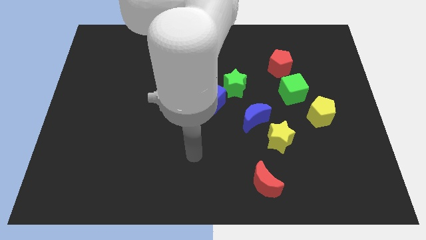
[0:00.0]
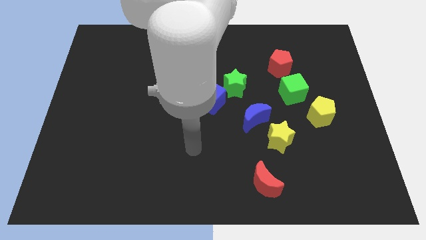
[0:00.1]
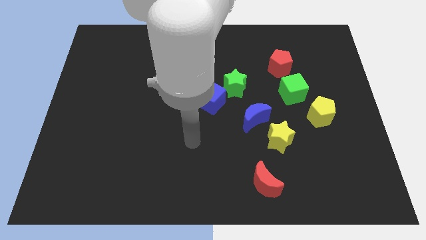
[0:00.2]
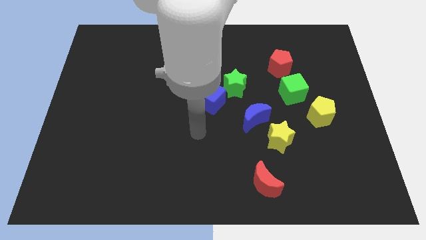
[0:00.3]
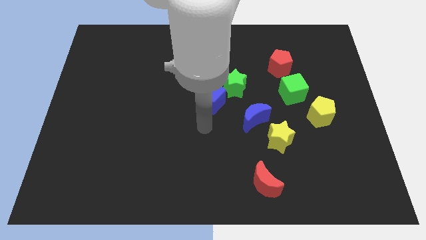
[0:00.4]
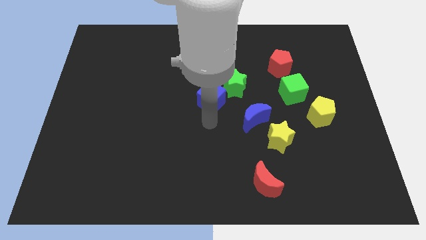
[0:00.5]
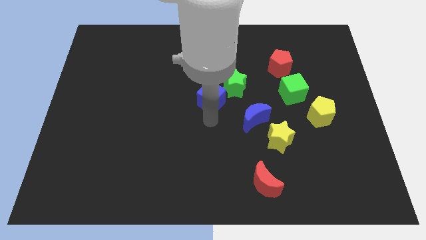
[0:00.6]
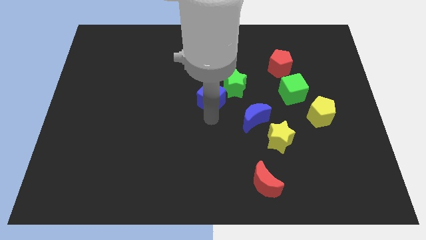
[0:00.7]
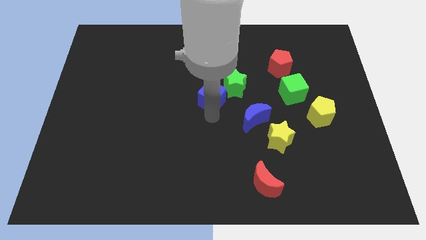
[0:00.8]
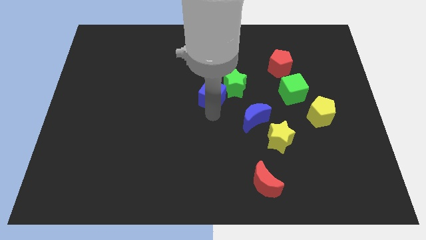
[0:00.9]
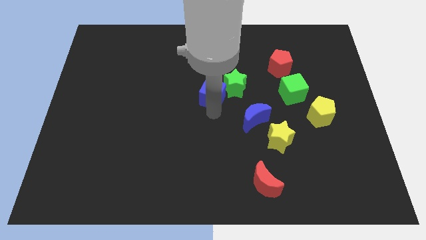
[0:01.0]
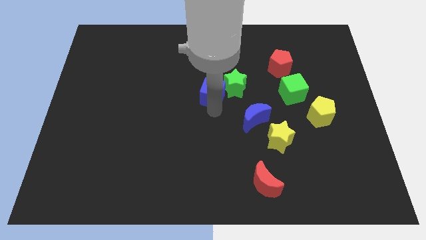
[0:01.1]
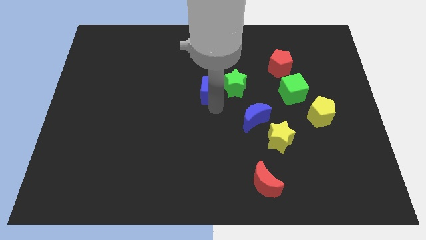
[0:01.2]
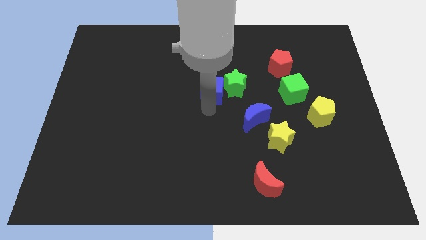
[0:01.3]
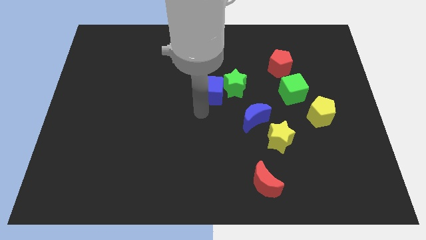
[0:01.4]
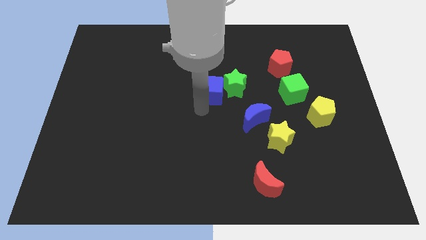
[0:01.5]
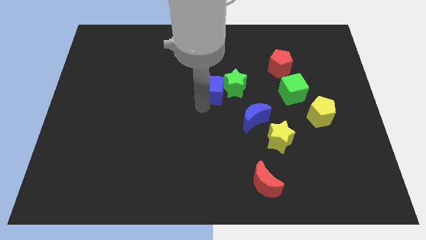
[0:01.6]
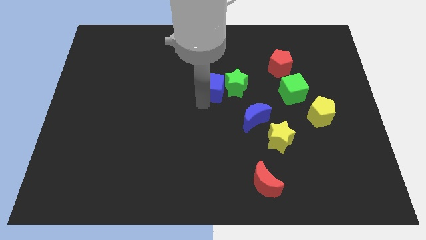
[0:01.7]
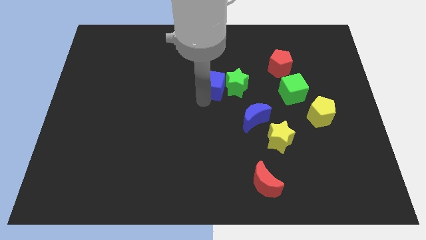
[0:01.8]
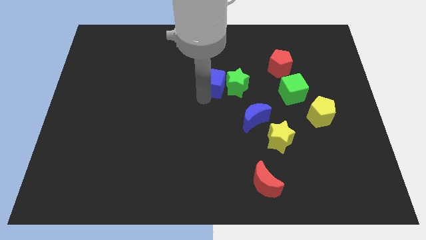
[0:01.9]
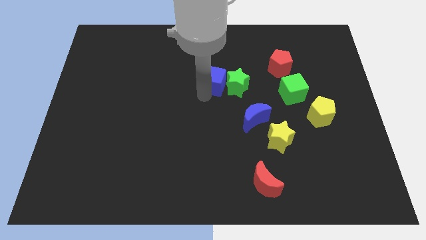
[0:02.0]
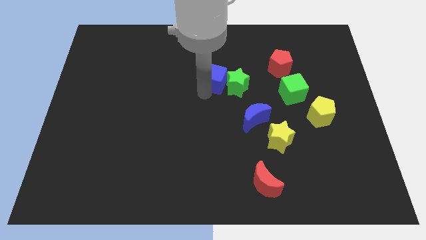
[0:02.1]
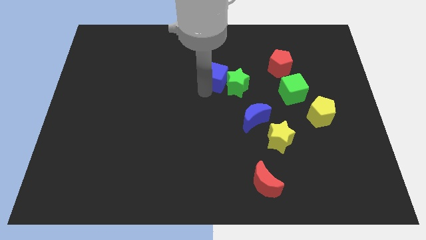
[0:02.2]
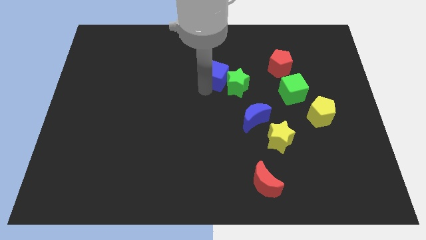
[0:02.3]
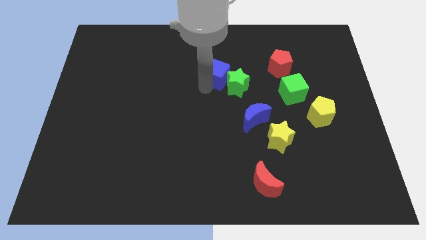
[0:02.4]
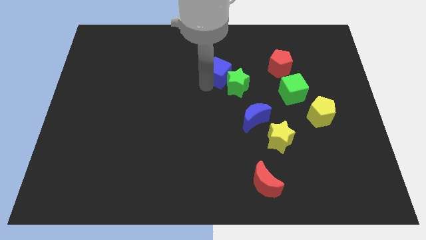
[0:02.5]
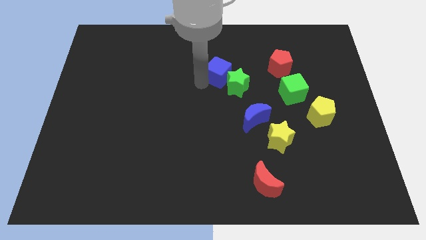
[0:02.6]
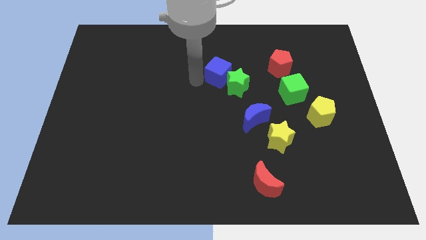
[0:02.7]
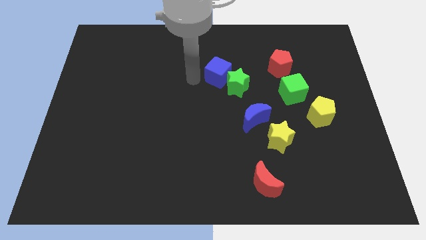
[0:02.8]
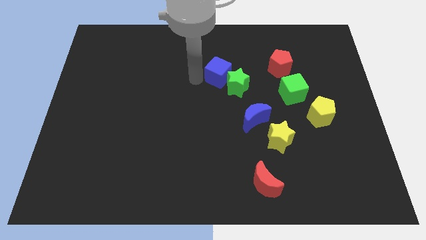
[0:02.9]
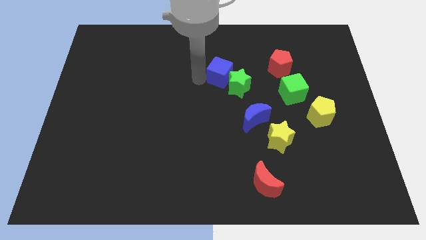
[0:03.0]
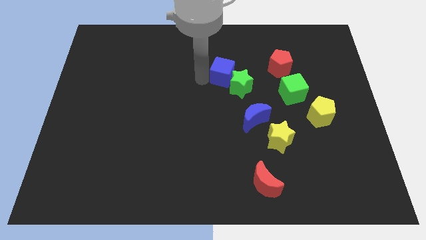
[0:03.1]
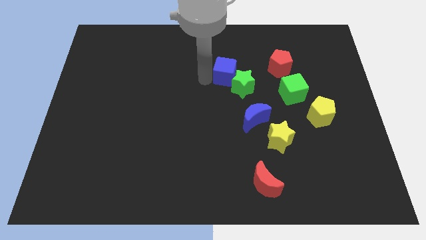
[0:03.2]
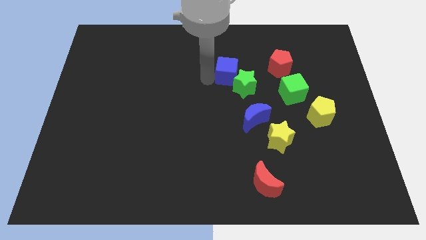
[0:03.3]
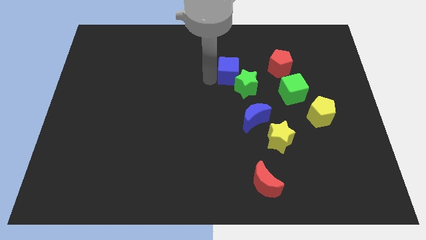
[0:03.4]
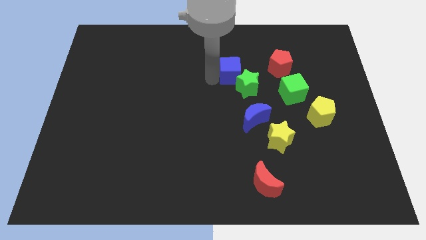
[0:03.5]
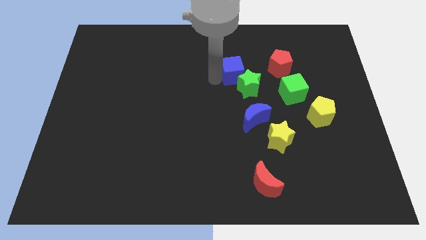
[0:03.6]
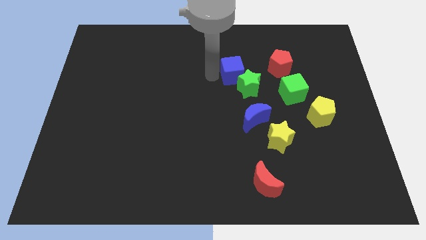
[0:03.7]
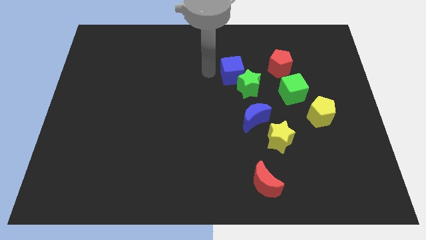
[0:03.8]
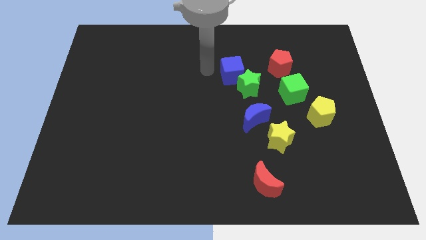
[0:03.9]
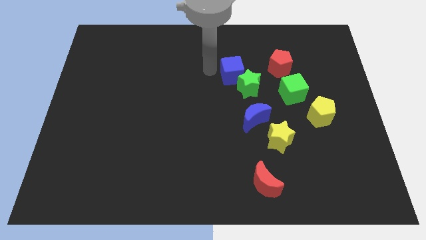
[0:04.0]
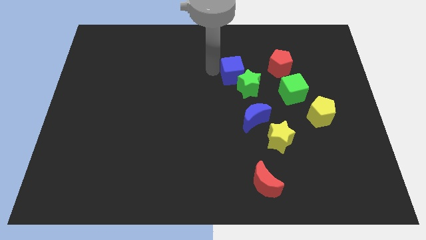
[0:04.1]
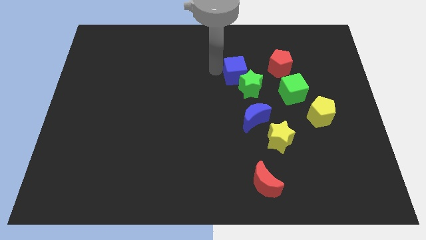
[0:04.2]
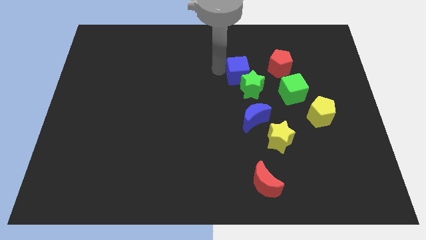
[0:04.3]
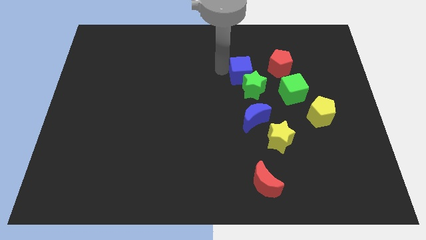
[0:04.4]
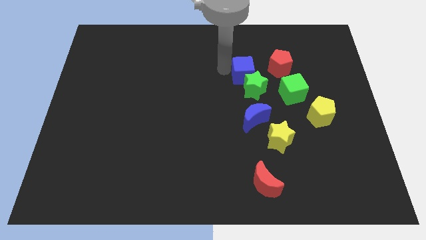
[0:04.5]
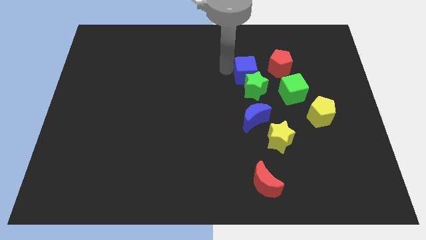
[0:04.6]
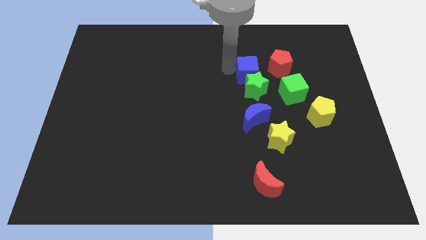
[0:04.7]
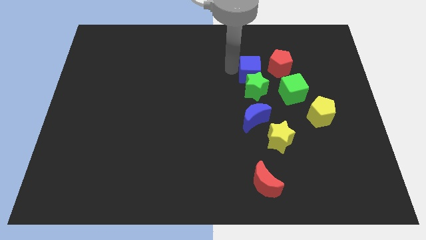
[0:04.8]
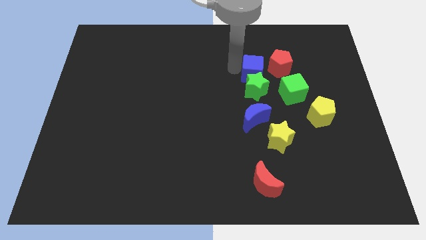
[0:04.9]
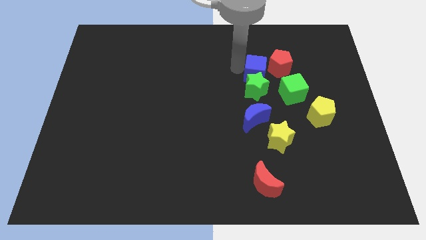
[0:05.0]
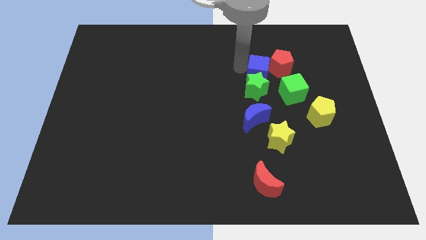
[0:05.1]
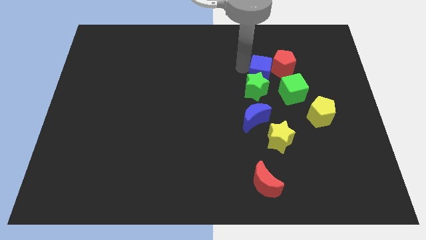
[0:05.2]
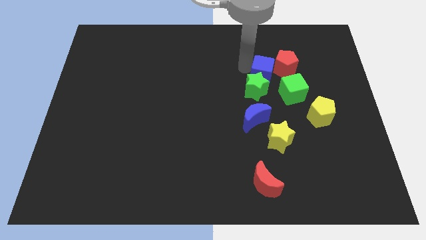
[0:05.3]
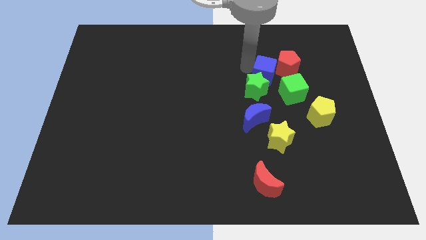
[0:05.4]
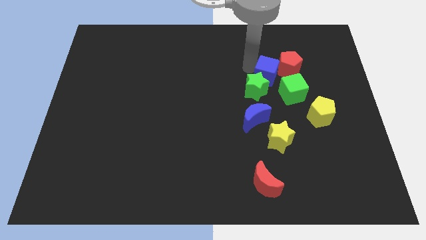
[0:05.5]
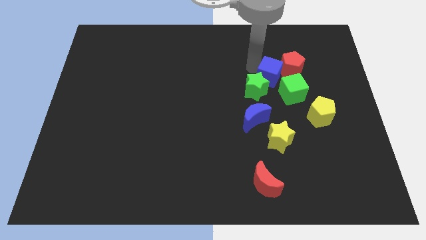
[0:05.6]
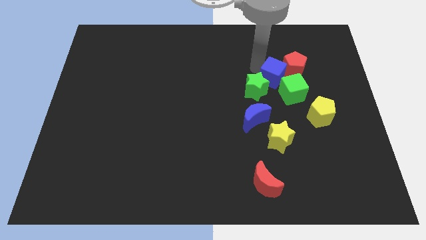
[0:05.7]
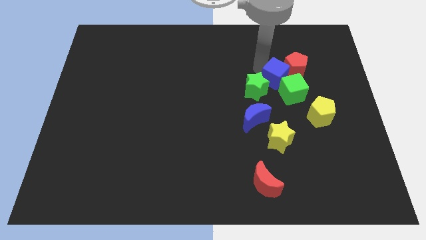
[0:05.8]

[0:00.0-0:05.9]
put the blue cube to the green cube
